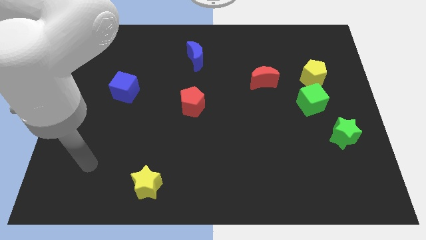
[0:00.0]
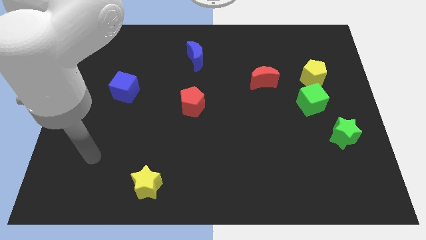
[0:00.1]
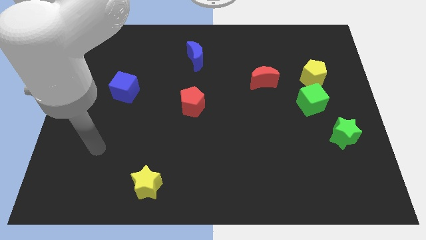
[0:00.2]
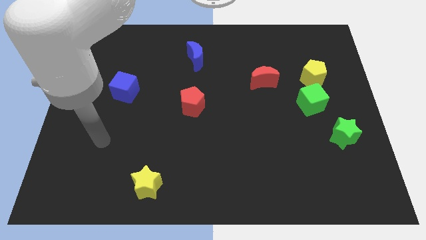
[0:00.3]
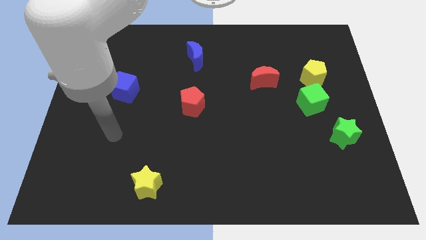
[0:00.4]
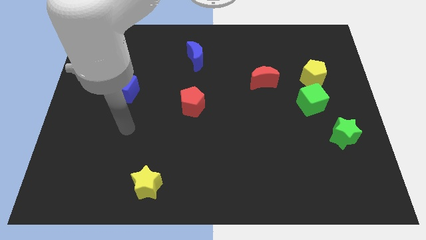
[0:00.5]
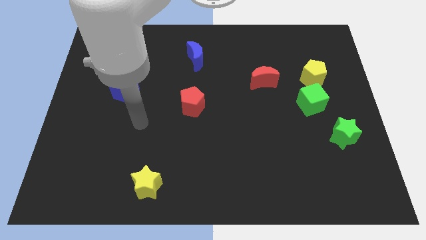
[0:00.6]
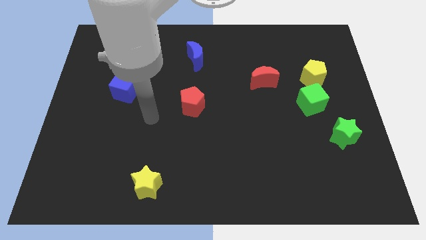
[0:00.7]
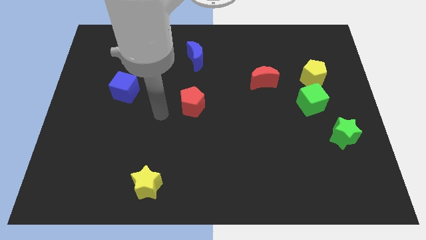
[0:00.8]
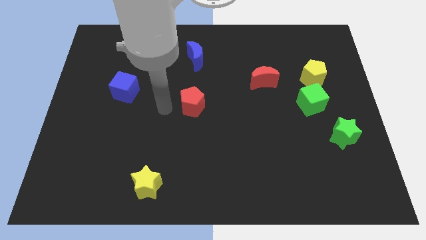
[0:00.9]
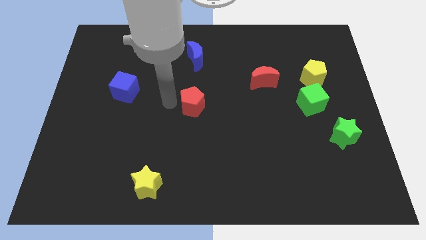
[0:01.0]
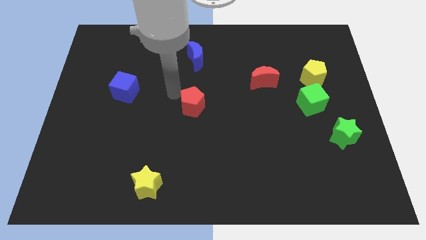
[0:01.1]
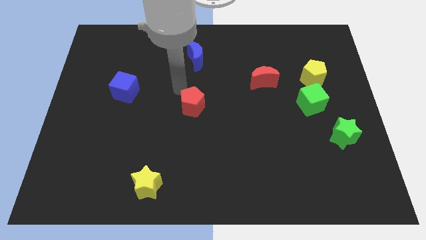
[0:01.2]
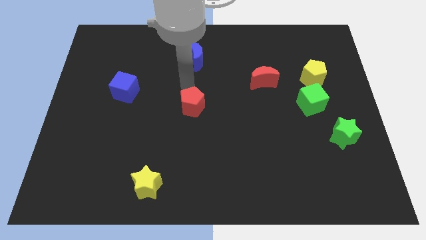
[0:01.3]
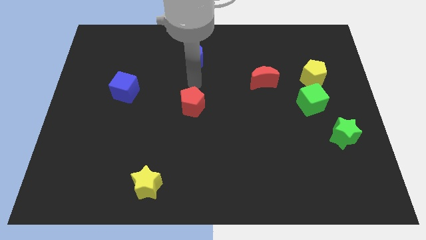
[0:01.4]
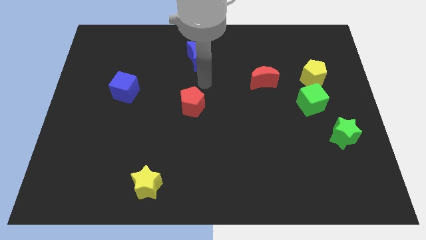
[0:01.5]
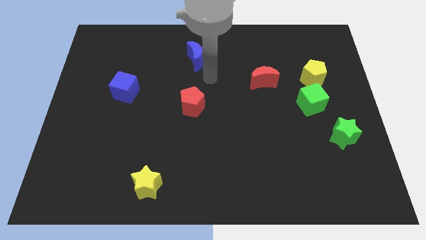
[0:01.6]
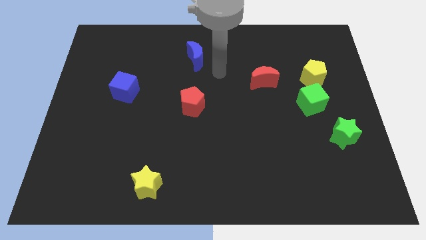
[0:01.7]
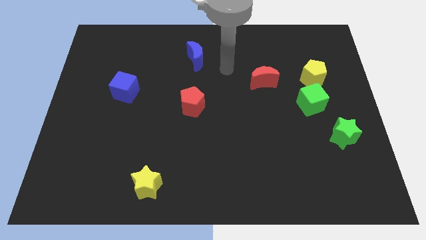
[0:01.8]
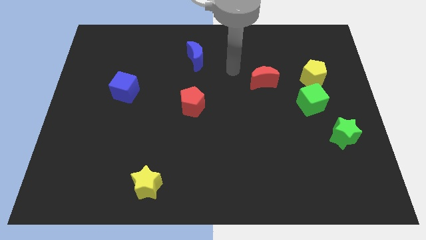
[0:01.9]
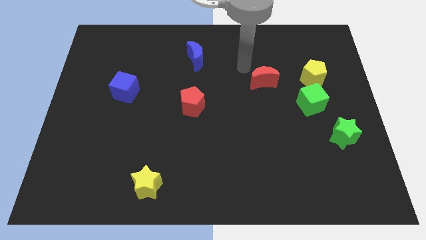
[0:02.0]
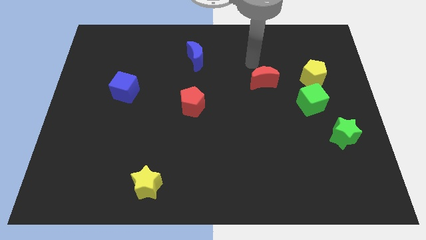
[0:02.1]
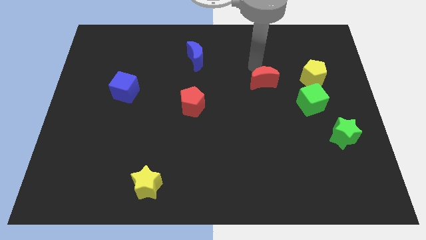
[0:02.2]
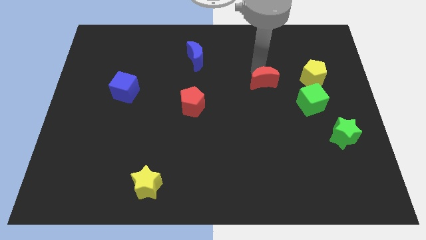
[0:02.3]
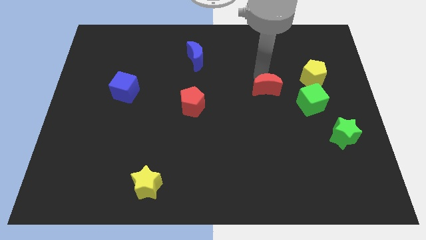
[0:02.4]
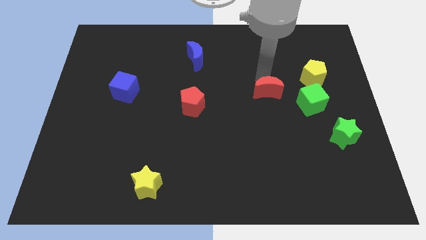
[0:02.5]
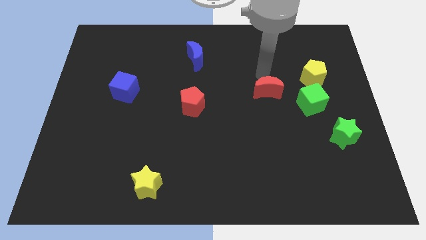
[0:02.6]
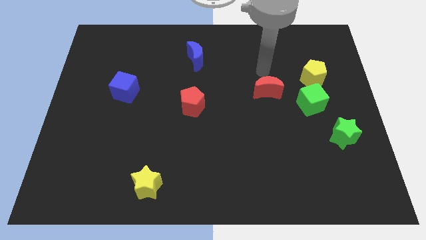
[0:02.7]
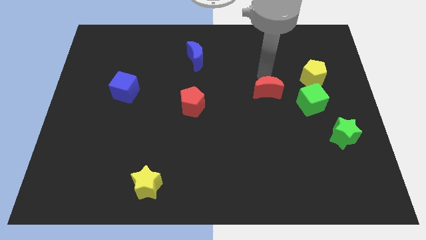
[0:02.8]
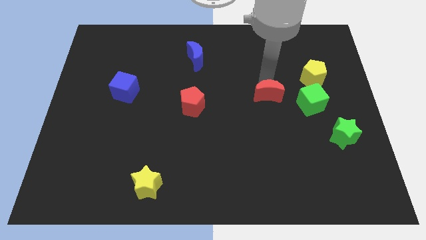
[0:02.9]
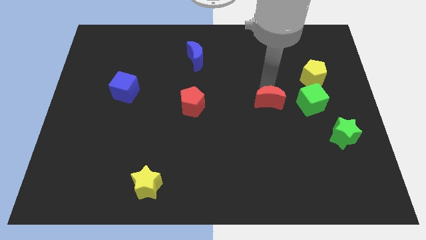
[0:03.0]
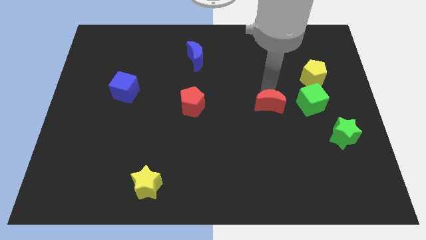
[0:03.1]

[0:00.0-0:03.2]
push the red moon down a little bit

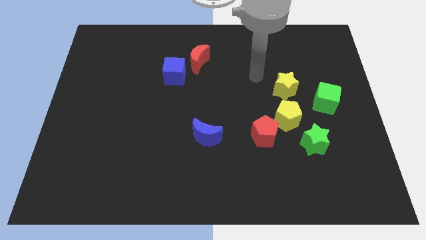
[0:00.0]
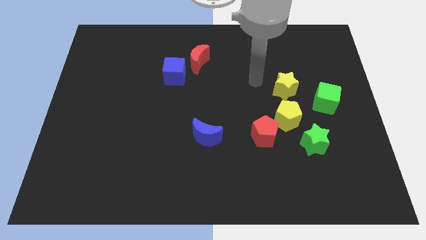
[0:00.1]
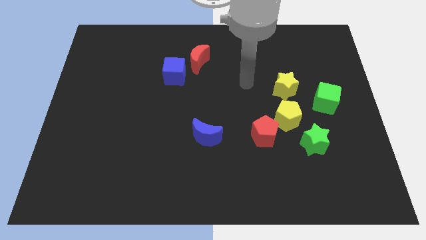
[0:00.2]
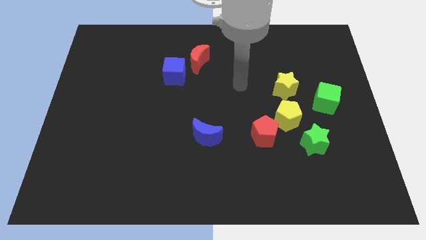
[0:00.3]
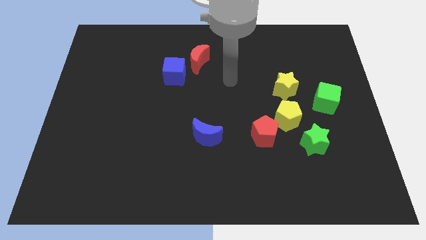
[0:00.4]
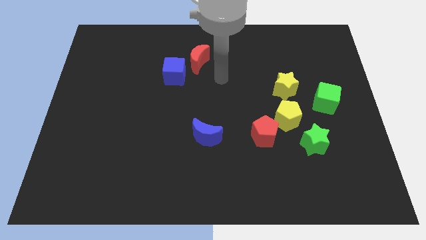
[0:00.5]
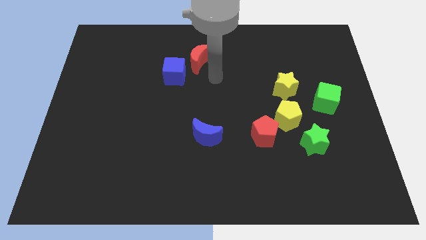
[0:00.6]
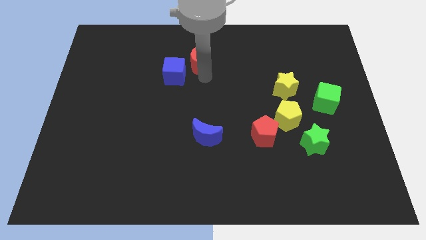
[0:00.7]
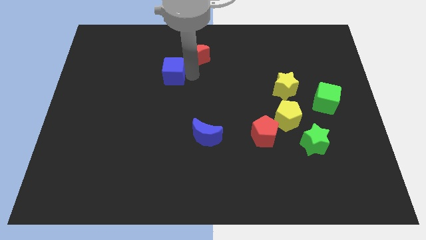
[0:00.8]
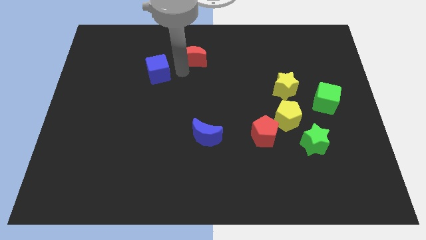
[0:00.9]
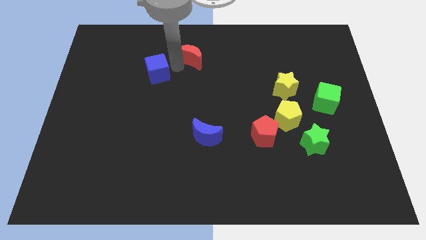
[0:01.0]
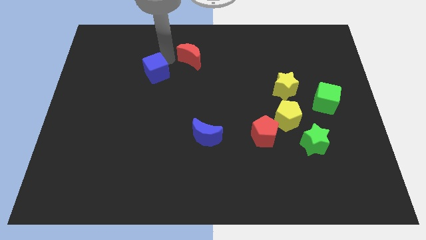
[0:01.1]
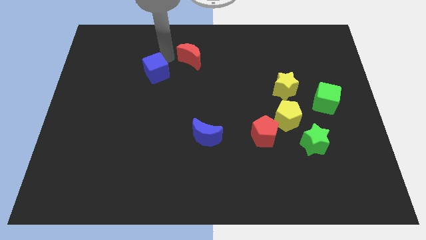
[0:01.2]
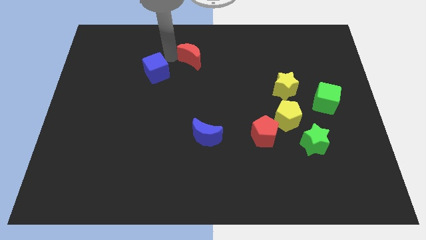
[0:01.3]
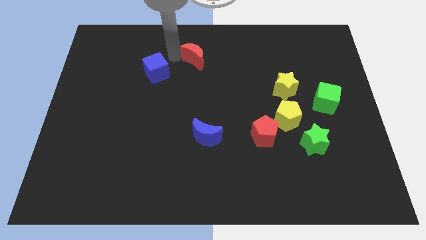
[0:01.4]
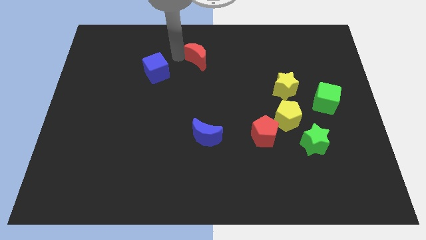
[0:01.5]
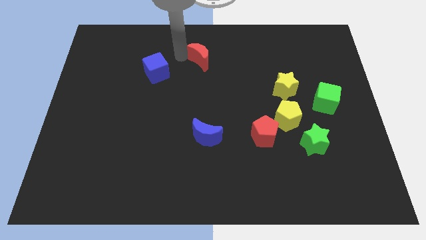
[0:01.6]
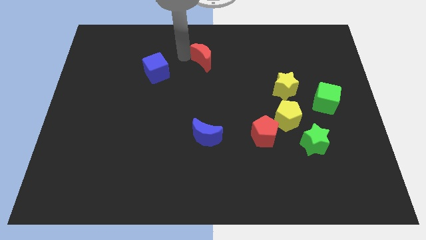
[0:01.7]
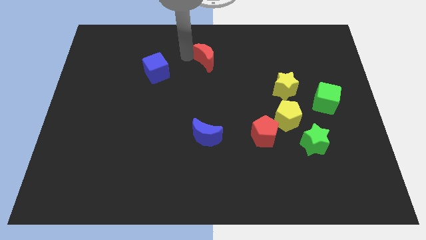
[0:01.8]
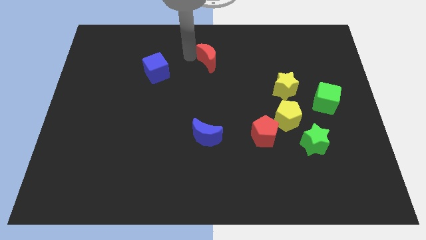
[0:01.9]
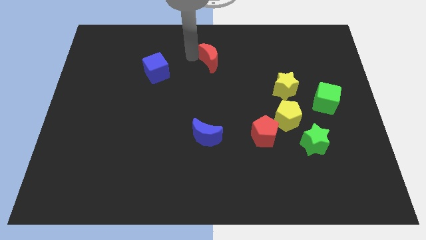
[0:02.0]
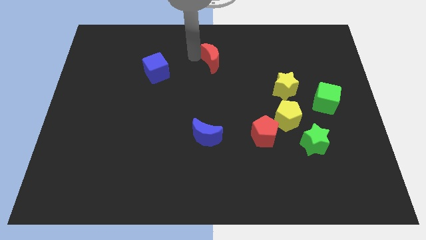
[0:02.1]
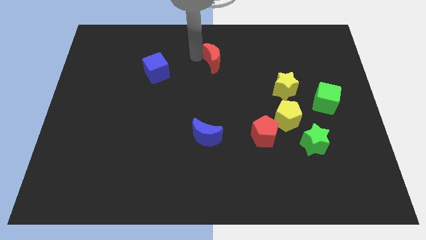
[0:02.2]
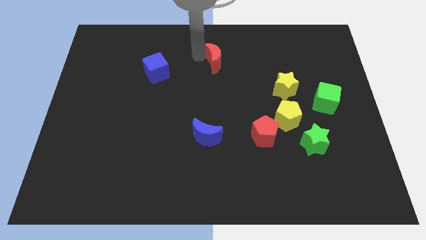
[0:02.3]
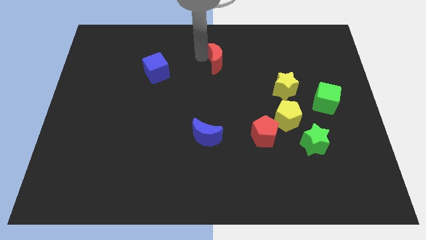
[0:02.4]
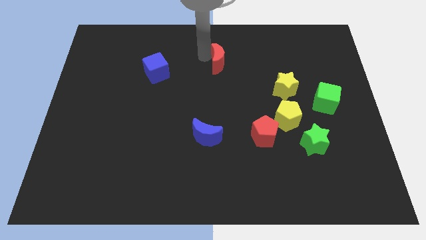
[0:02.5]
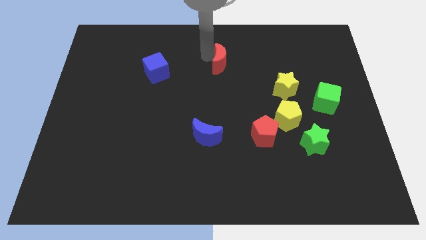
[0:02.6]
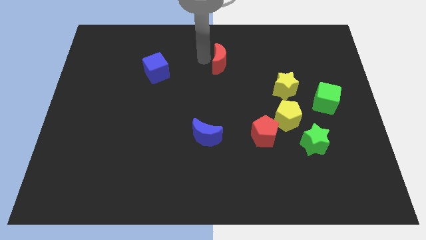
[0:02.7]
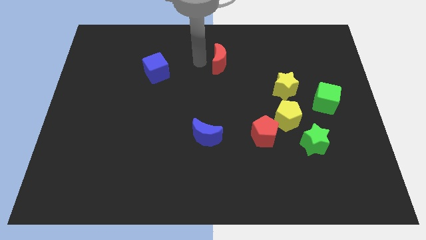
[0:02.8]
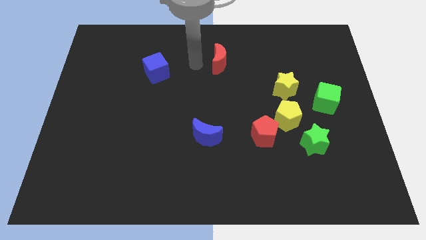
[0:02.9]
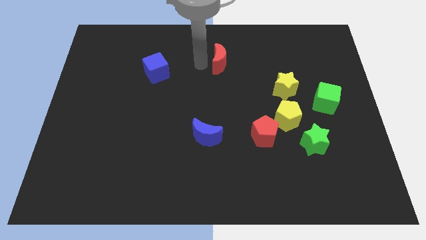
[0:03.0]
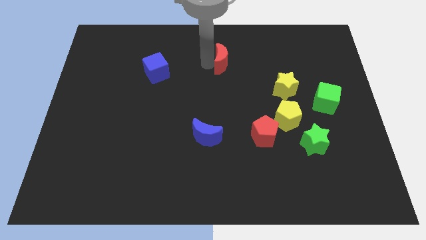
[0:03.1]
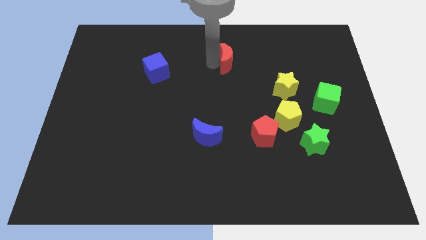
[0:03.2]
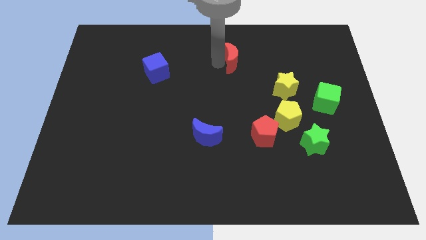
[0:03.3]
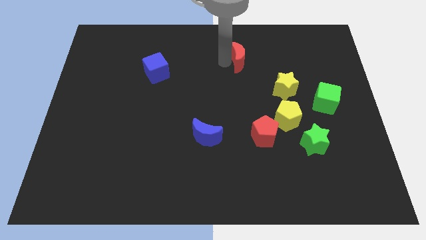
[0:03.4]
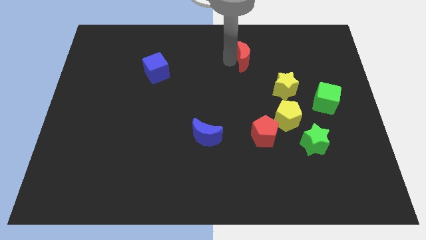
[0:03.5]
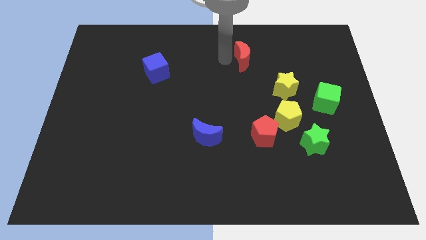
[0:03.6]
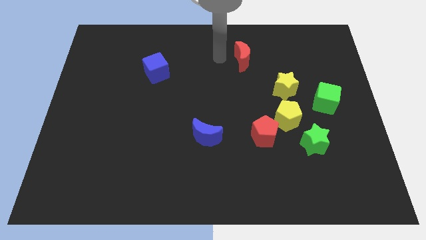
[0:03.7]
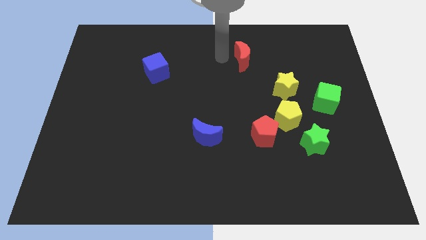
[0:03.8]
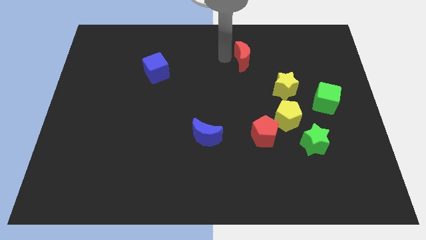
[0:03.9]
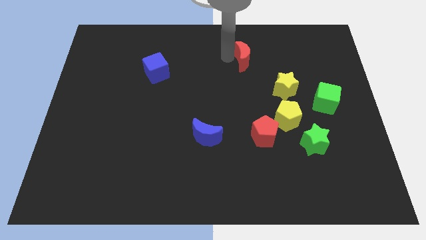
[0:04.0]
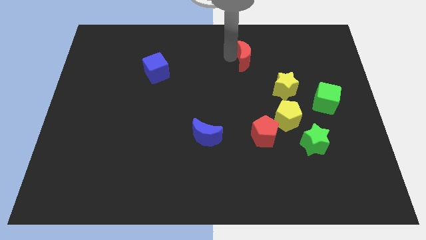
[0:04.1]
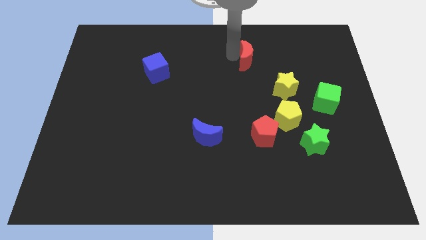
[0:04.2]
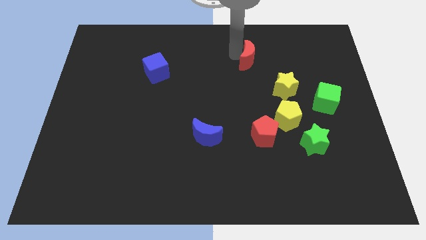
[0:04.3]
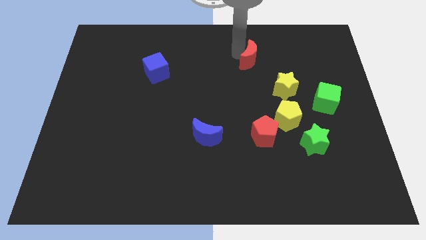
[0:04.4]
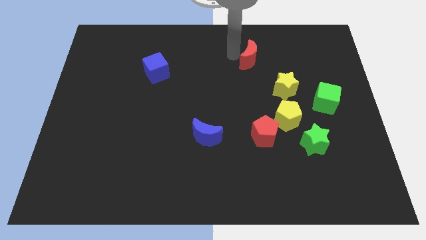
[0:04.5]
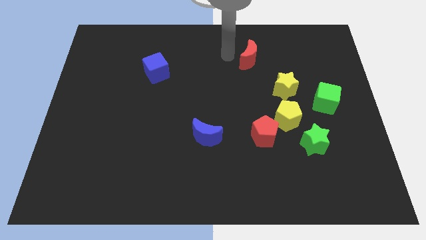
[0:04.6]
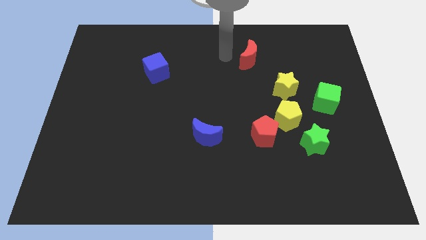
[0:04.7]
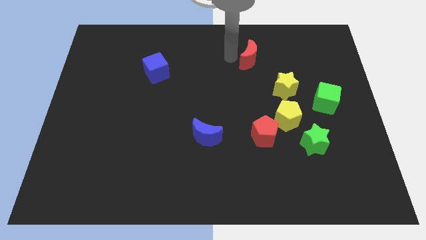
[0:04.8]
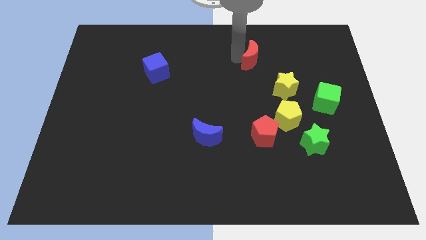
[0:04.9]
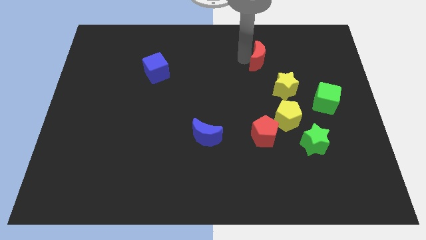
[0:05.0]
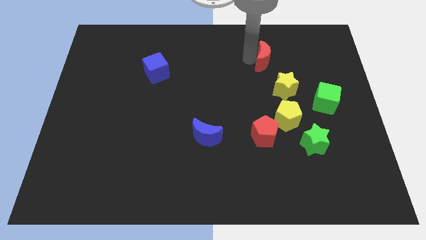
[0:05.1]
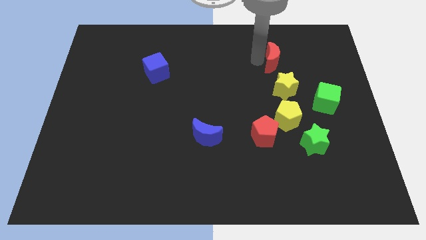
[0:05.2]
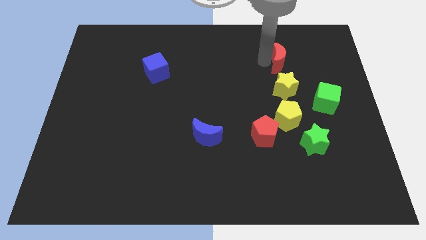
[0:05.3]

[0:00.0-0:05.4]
slide the red moon right
